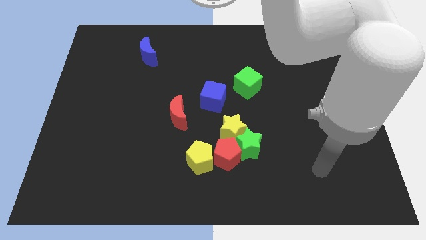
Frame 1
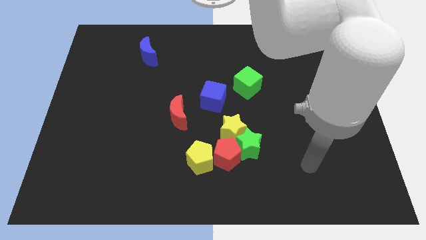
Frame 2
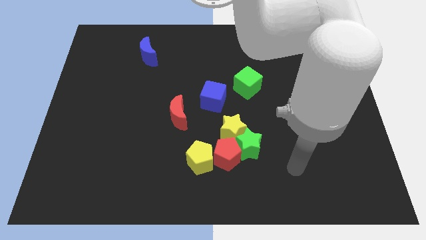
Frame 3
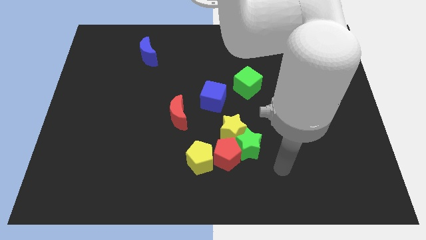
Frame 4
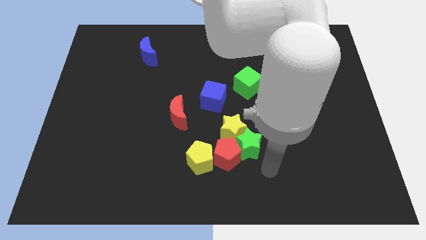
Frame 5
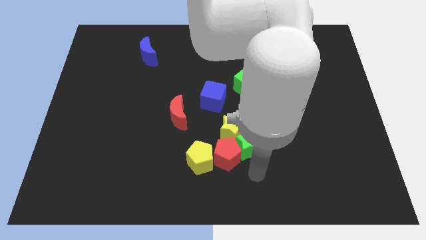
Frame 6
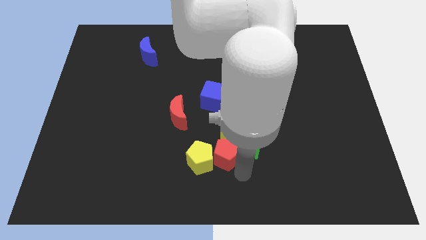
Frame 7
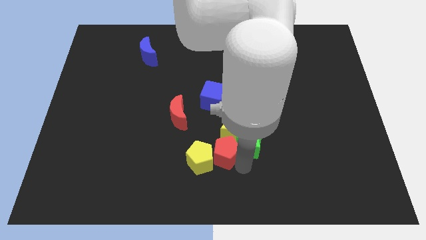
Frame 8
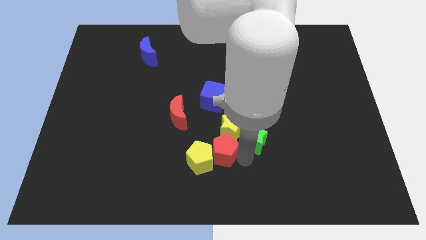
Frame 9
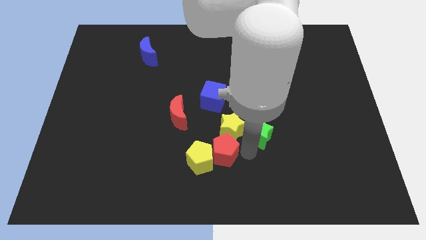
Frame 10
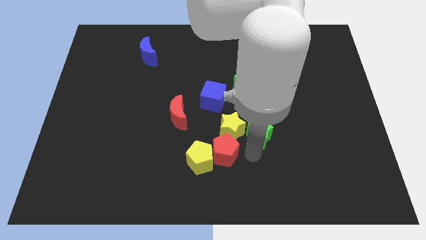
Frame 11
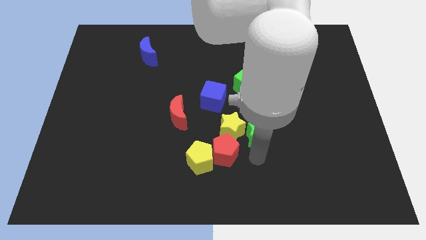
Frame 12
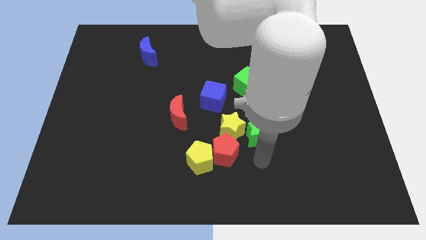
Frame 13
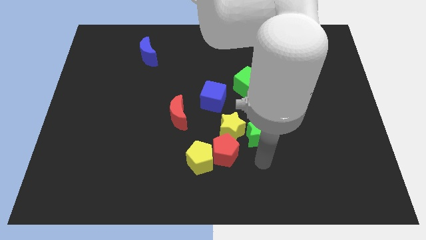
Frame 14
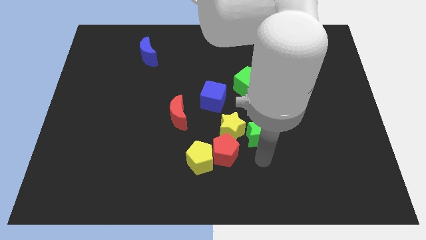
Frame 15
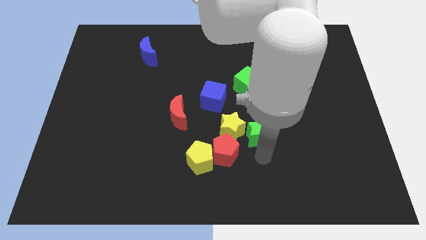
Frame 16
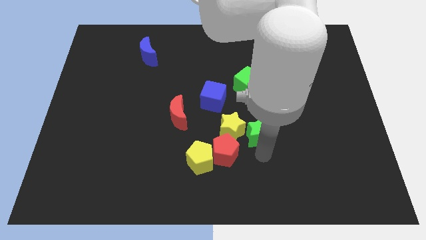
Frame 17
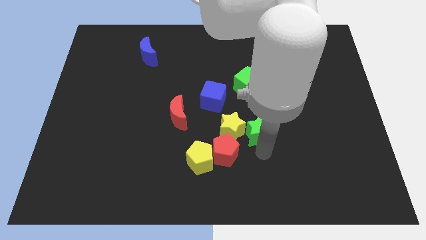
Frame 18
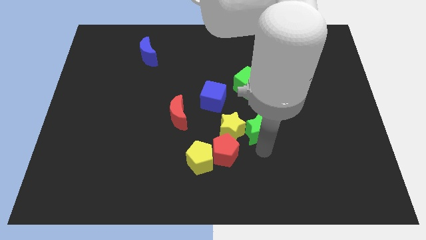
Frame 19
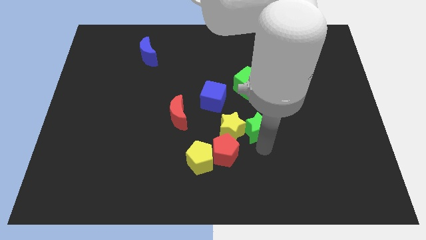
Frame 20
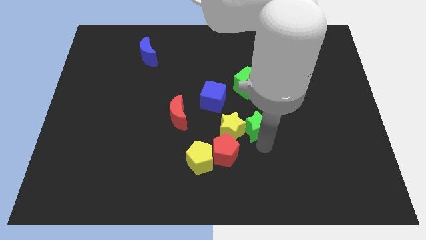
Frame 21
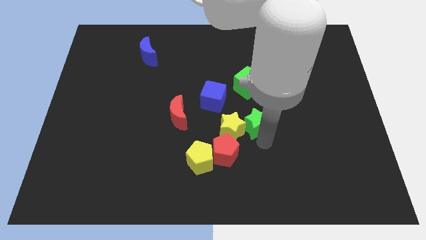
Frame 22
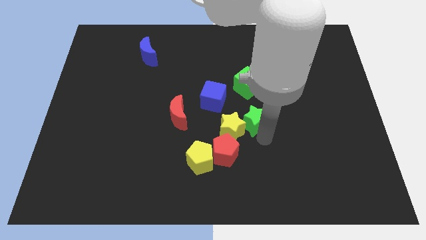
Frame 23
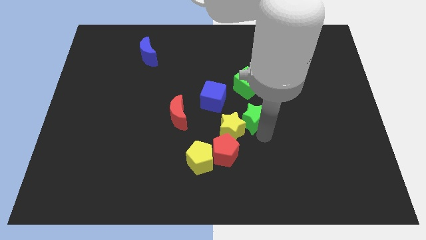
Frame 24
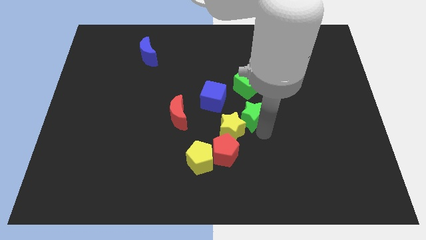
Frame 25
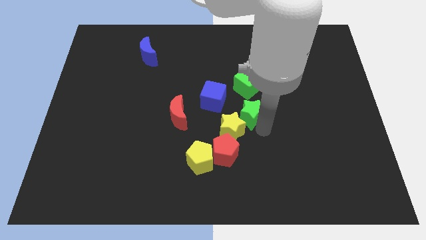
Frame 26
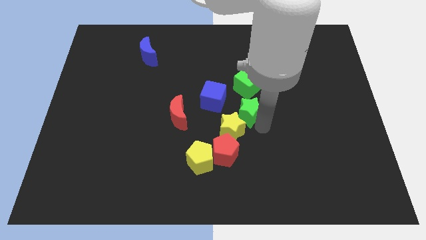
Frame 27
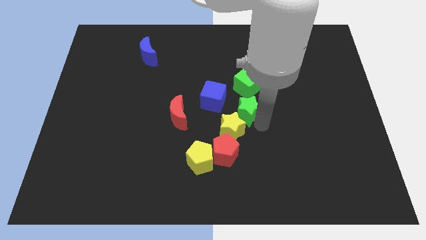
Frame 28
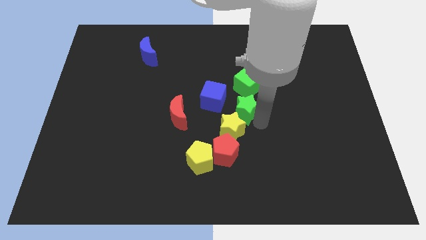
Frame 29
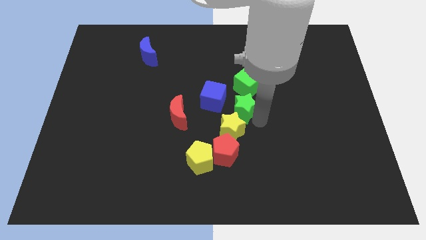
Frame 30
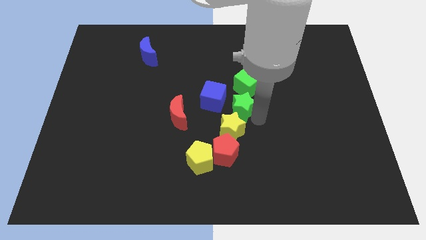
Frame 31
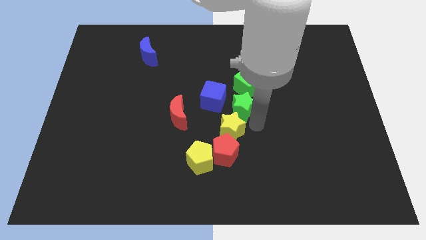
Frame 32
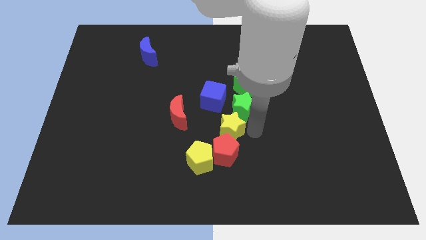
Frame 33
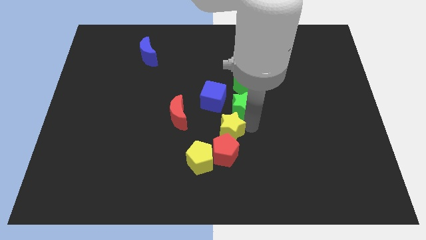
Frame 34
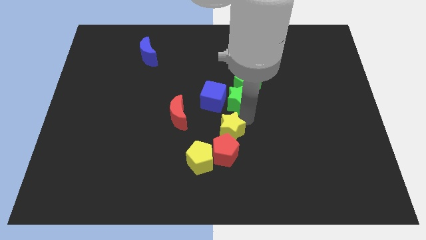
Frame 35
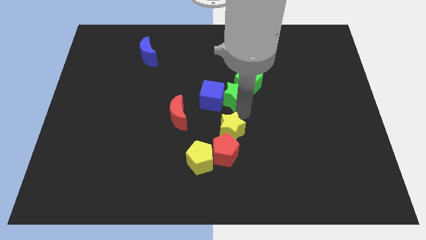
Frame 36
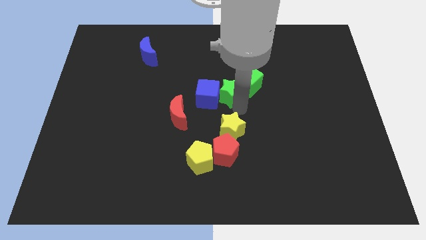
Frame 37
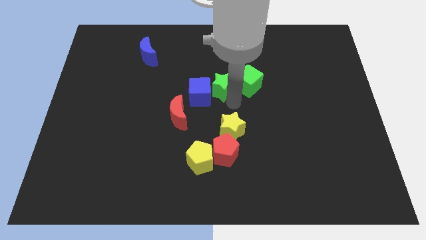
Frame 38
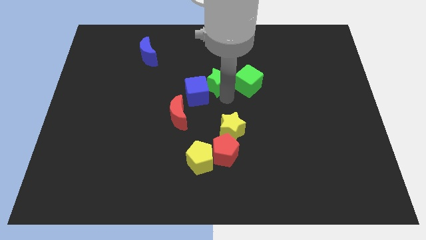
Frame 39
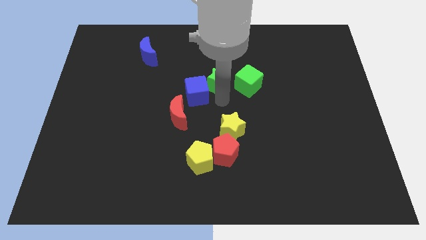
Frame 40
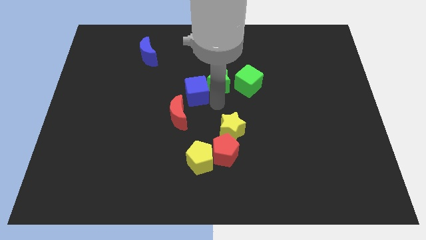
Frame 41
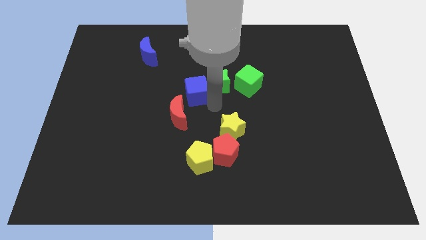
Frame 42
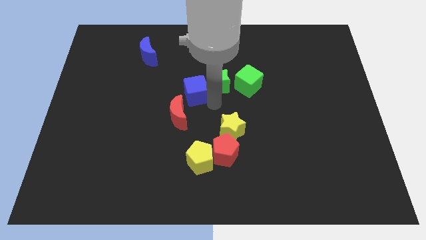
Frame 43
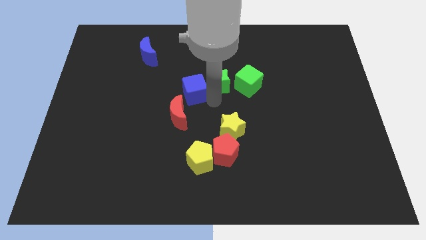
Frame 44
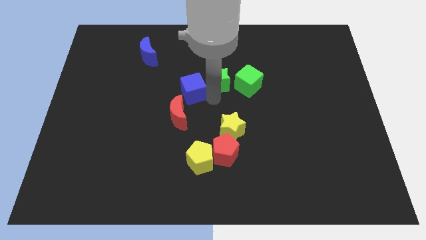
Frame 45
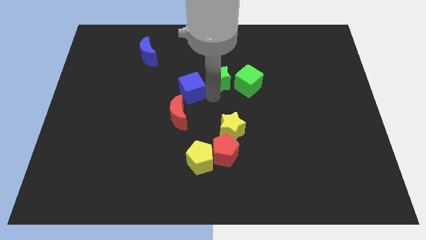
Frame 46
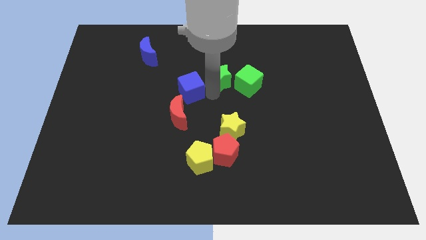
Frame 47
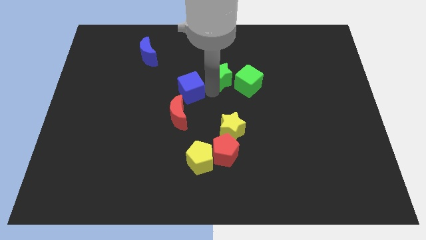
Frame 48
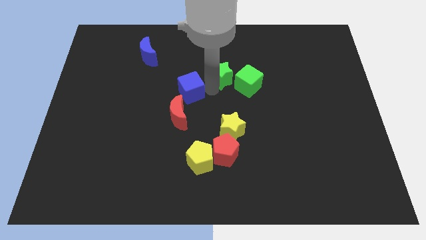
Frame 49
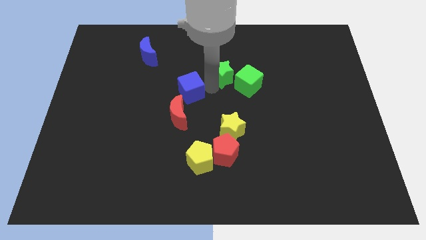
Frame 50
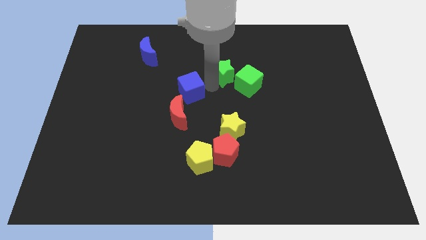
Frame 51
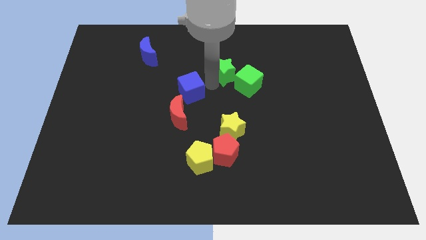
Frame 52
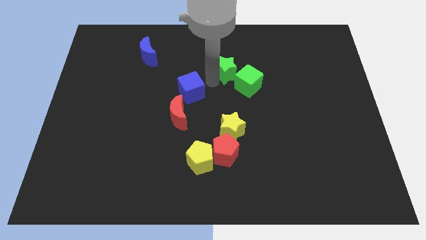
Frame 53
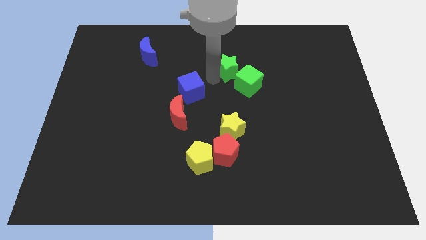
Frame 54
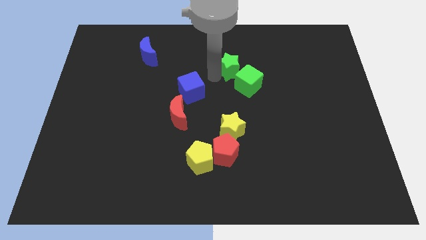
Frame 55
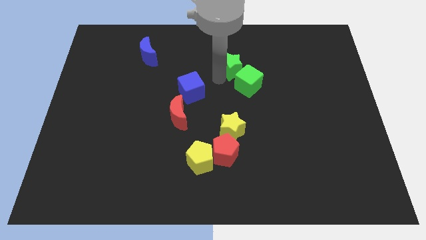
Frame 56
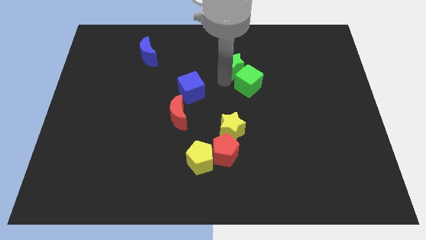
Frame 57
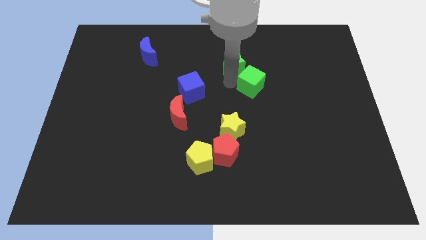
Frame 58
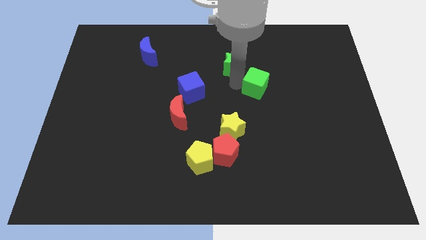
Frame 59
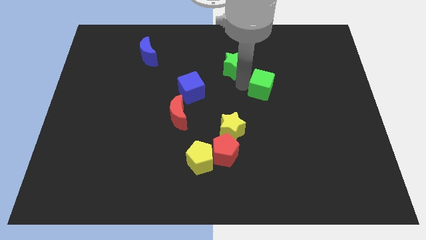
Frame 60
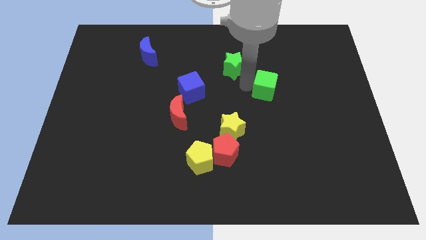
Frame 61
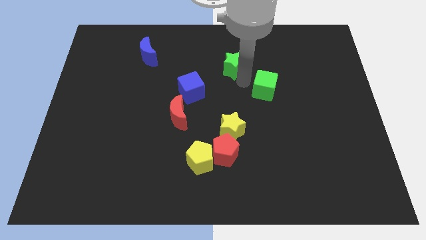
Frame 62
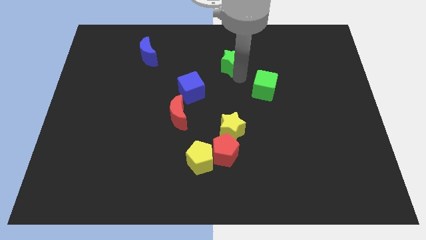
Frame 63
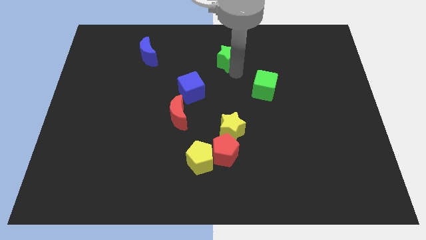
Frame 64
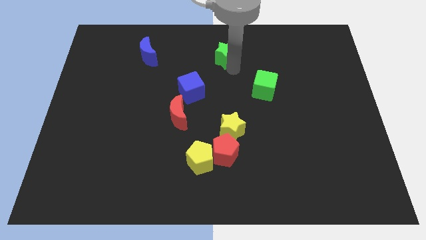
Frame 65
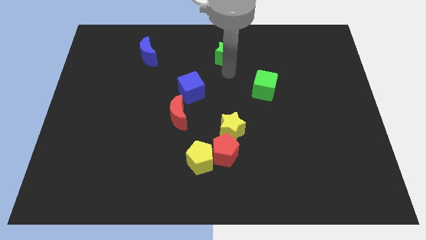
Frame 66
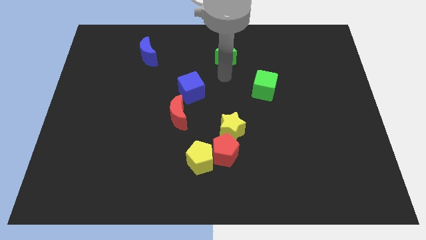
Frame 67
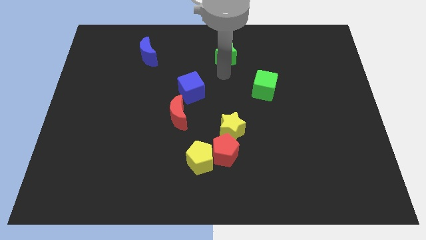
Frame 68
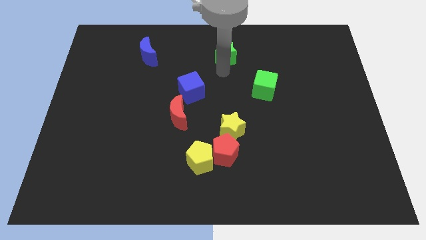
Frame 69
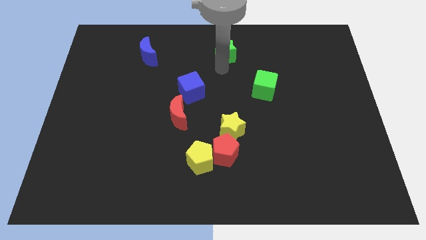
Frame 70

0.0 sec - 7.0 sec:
slide the green star to the top

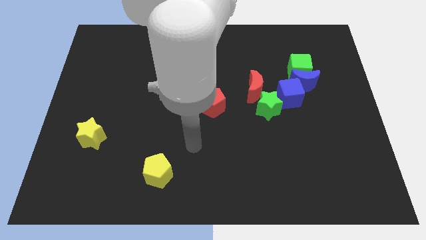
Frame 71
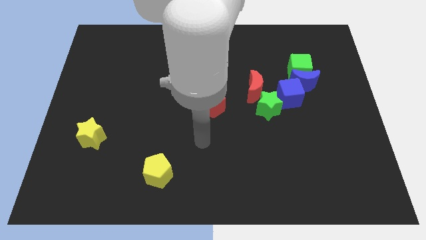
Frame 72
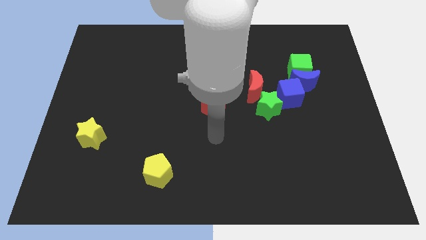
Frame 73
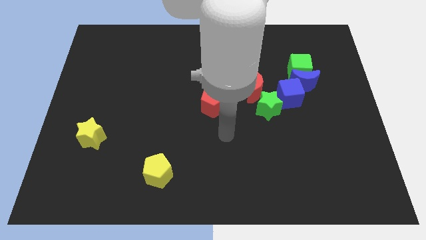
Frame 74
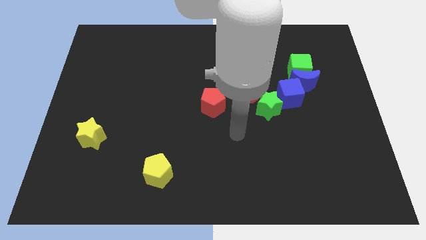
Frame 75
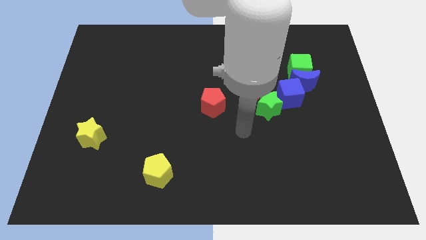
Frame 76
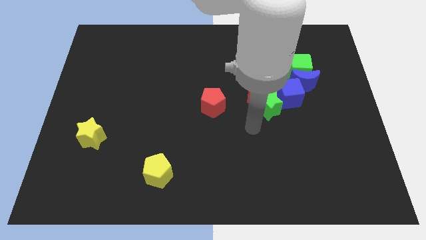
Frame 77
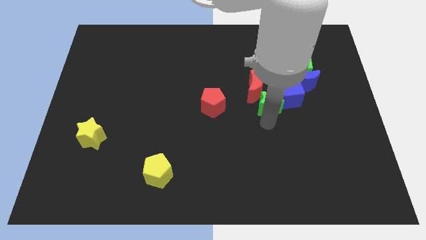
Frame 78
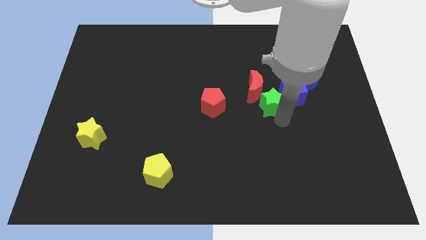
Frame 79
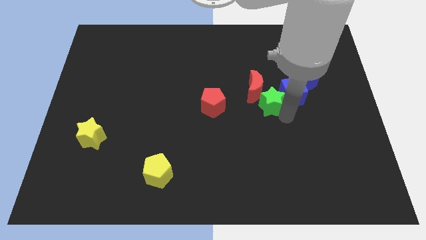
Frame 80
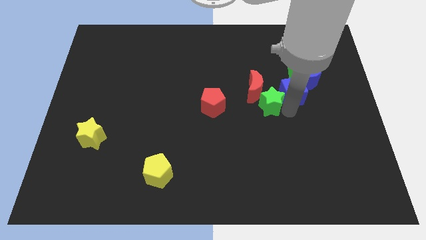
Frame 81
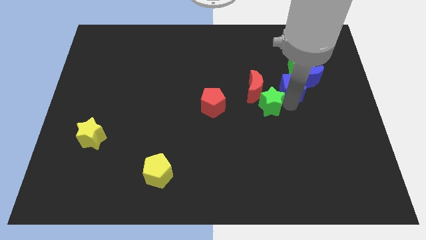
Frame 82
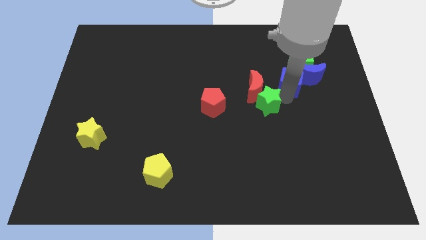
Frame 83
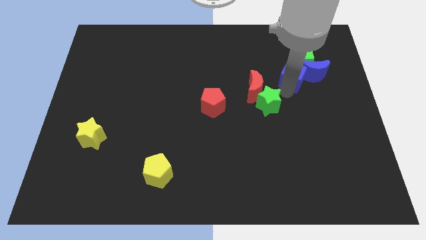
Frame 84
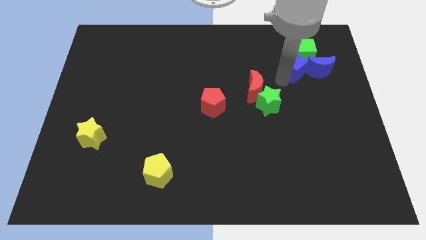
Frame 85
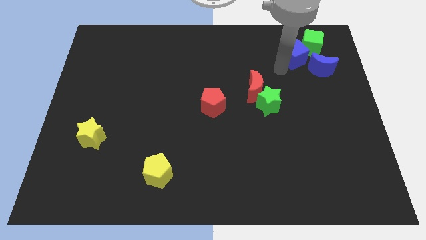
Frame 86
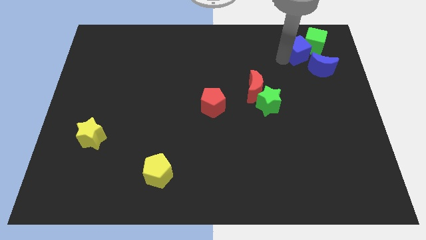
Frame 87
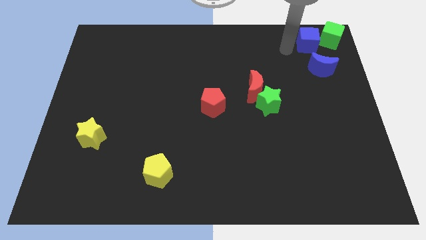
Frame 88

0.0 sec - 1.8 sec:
slide the green cube to the upper right corner
